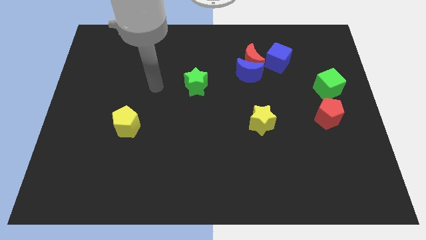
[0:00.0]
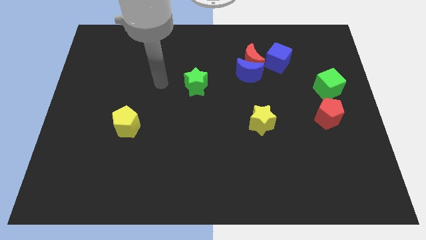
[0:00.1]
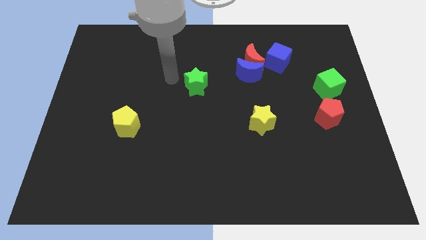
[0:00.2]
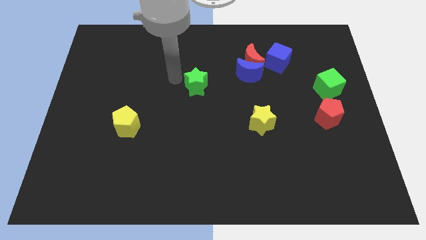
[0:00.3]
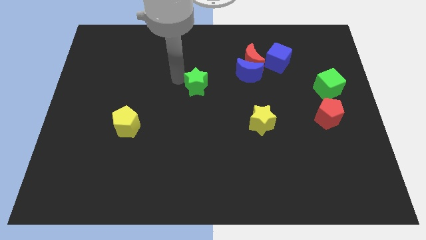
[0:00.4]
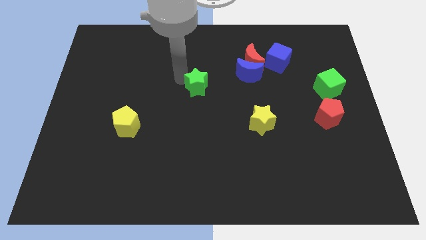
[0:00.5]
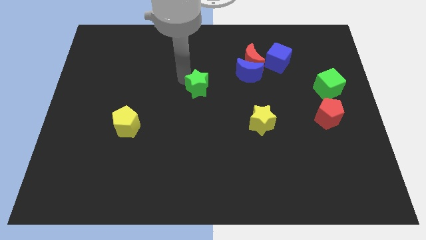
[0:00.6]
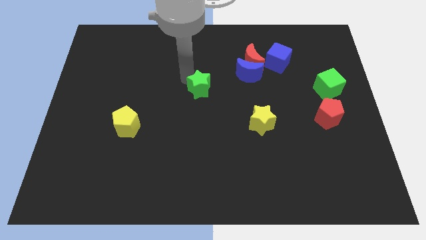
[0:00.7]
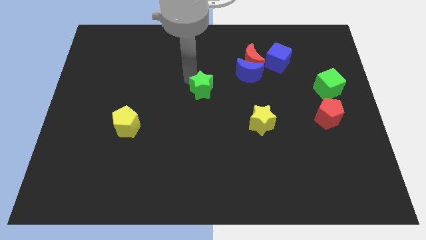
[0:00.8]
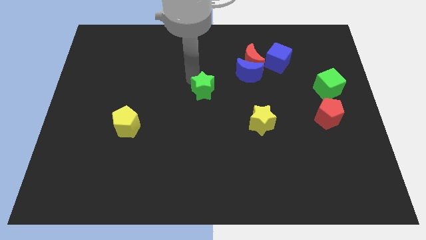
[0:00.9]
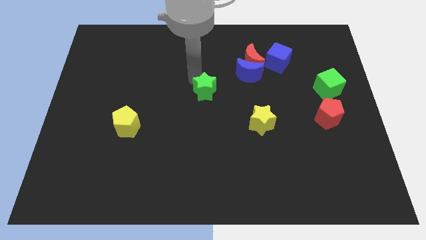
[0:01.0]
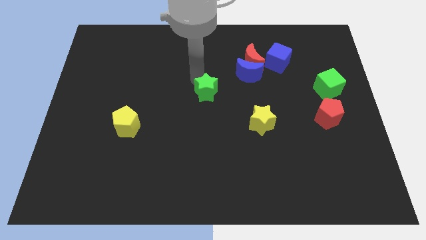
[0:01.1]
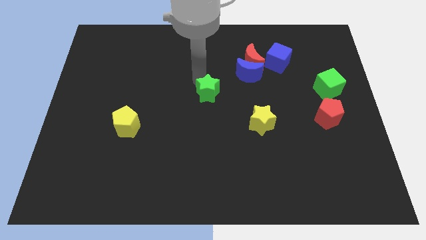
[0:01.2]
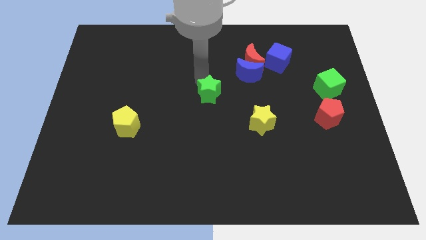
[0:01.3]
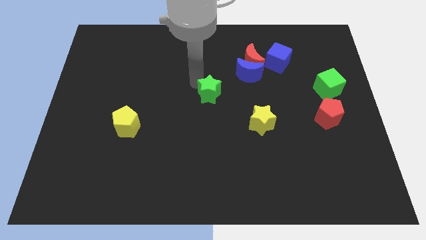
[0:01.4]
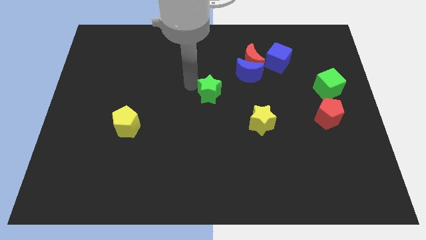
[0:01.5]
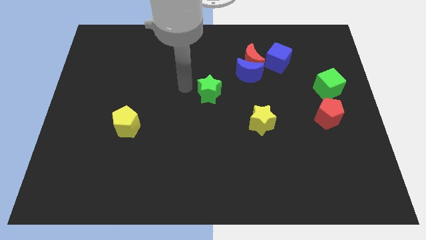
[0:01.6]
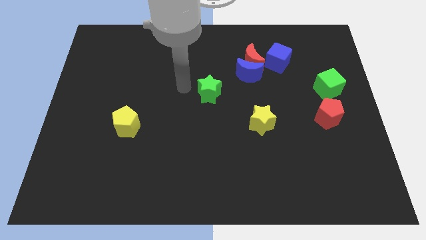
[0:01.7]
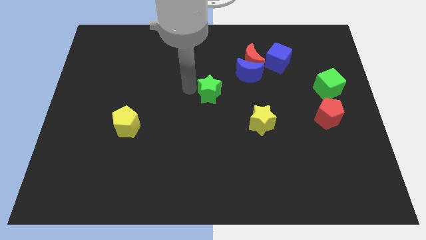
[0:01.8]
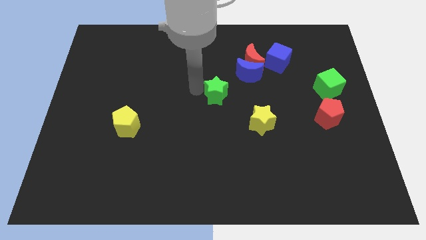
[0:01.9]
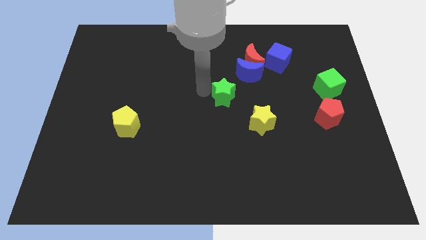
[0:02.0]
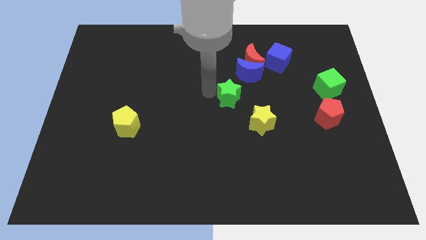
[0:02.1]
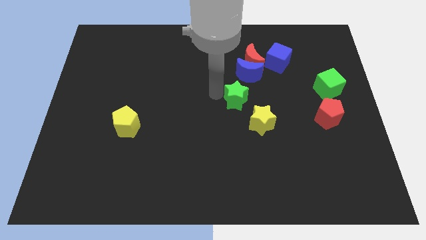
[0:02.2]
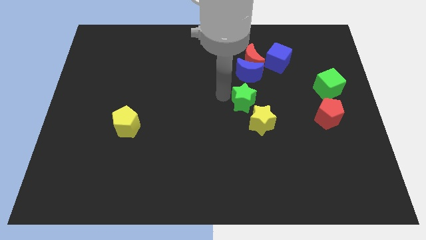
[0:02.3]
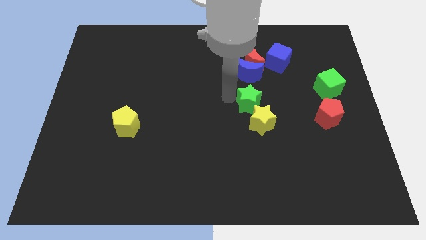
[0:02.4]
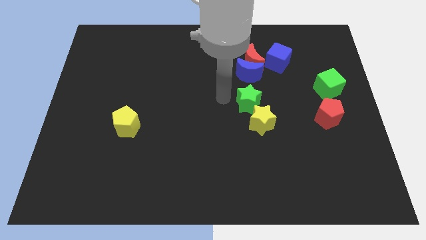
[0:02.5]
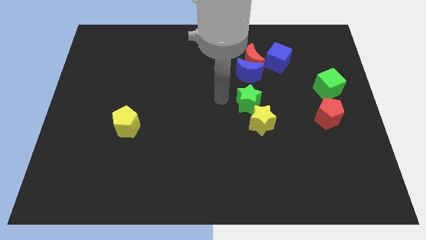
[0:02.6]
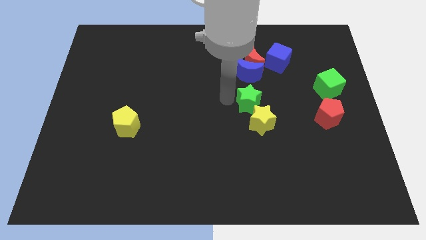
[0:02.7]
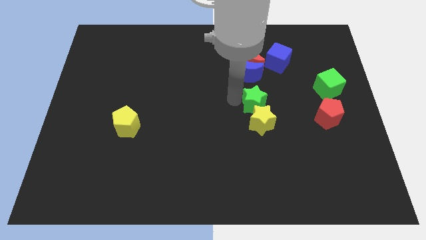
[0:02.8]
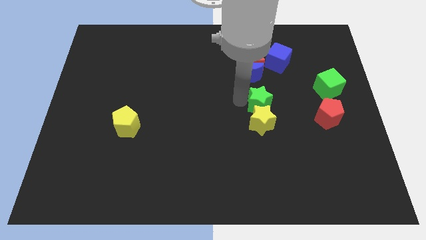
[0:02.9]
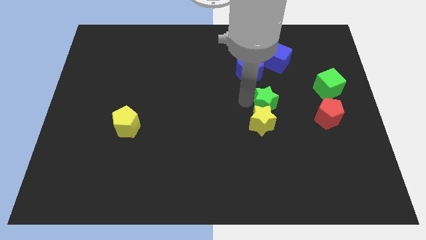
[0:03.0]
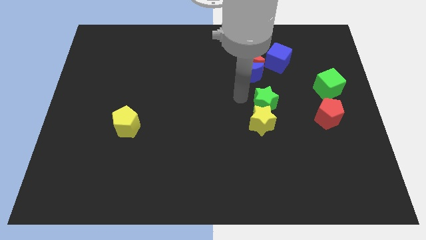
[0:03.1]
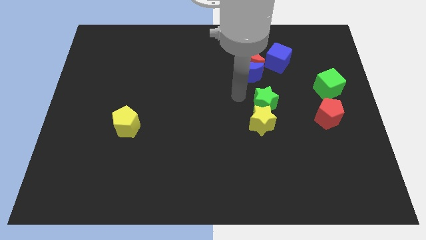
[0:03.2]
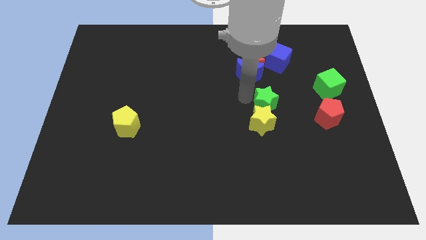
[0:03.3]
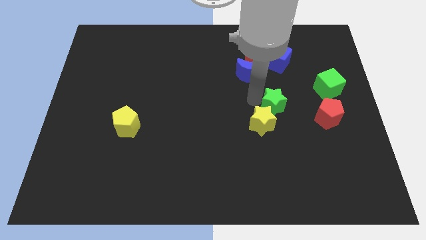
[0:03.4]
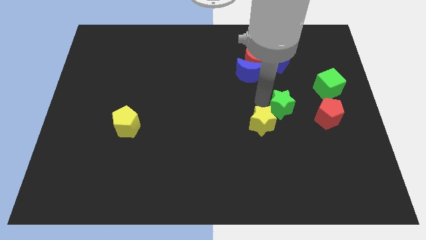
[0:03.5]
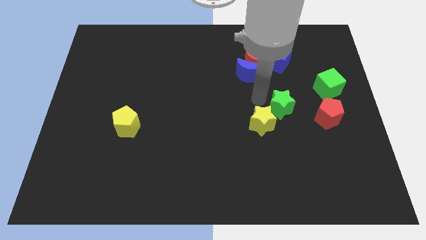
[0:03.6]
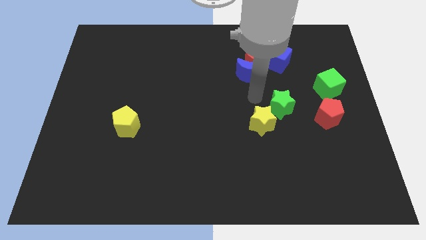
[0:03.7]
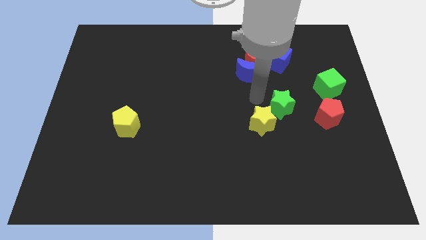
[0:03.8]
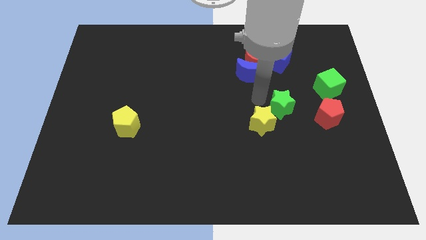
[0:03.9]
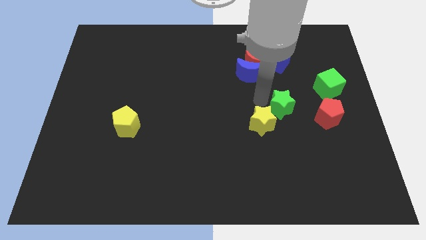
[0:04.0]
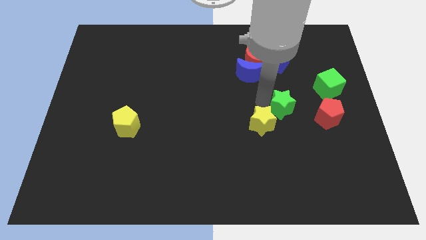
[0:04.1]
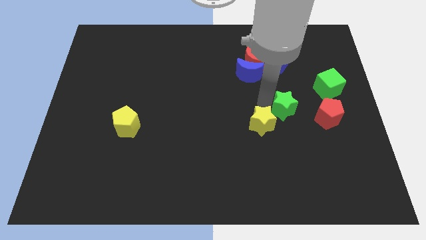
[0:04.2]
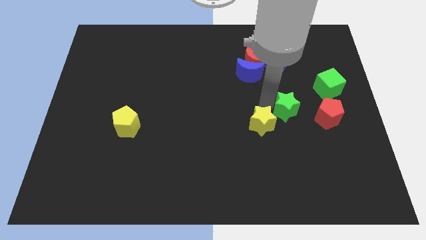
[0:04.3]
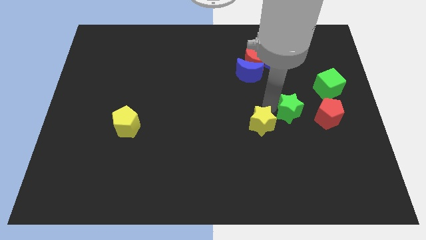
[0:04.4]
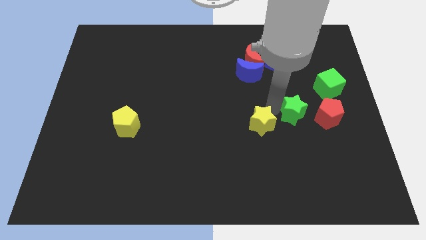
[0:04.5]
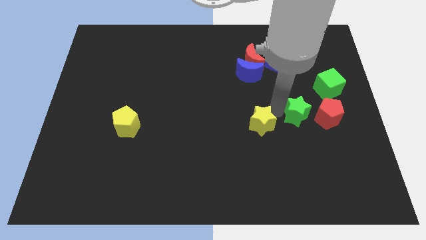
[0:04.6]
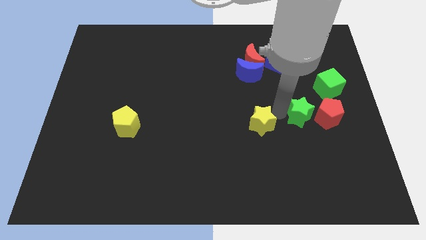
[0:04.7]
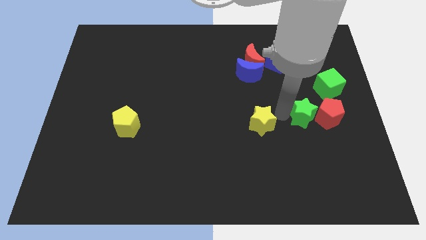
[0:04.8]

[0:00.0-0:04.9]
push the green star to the red pentagon

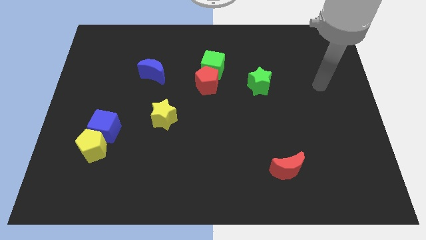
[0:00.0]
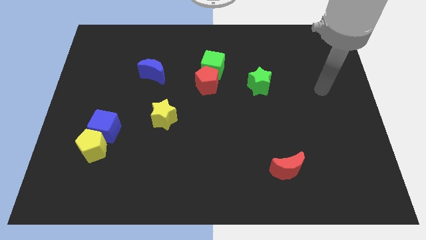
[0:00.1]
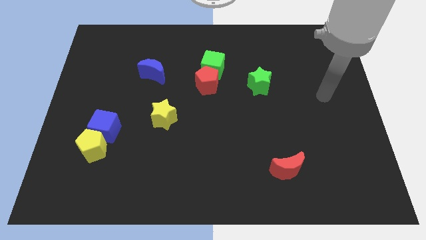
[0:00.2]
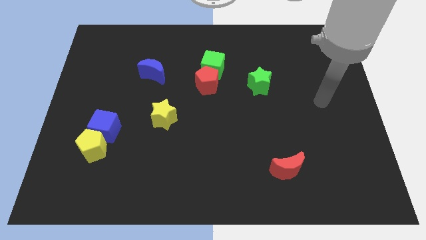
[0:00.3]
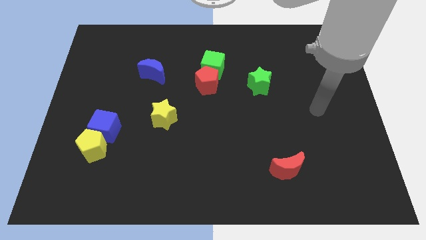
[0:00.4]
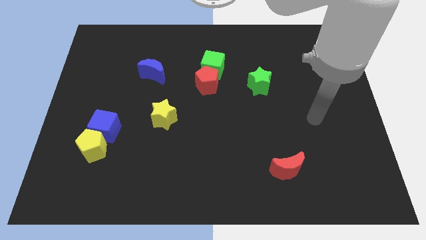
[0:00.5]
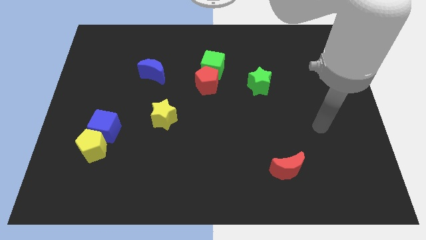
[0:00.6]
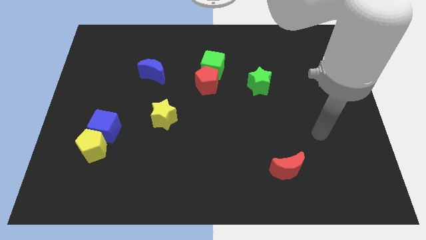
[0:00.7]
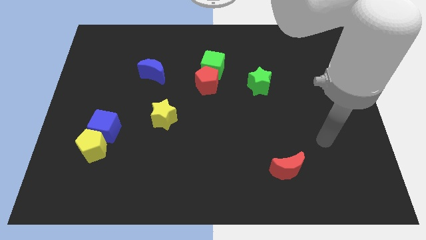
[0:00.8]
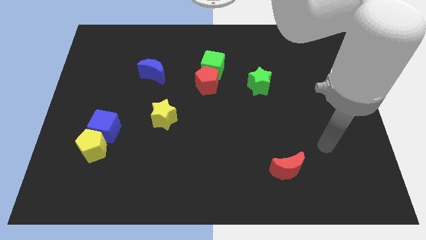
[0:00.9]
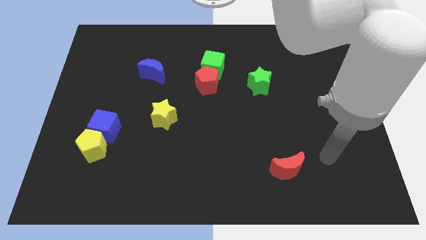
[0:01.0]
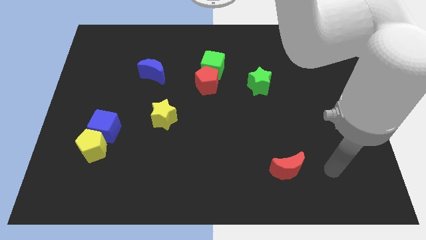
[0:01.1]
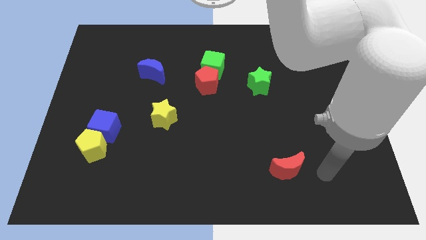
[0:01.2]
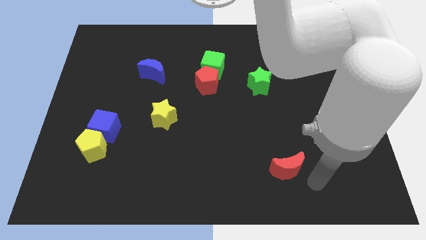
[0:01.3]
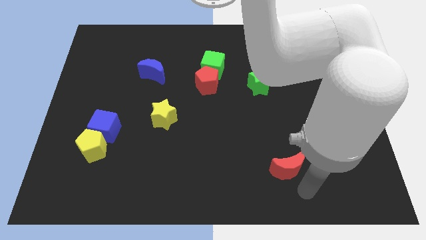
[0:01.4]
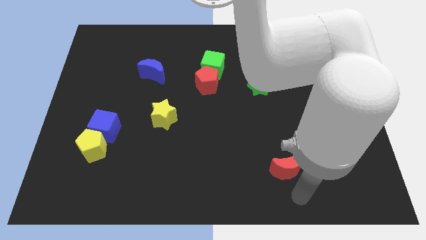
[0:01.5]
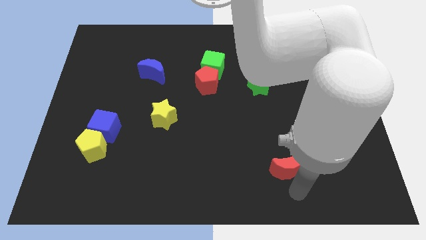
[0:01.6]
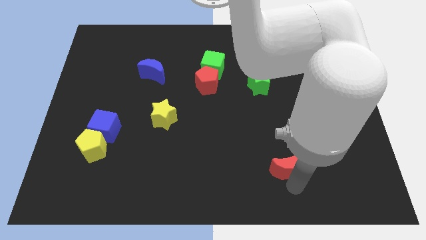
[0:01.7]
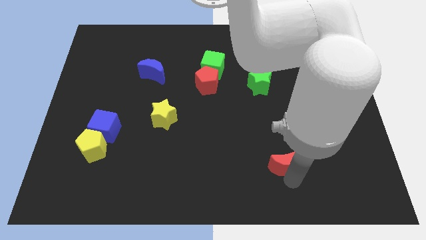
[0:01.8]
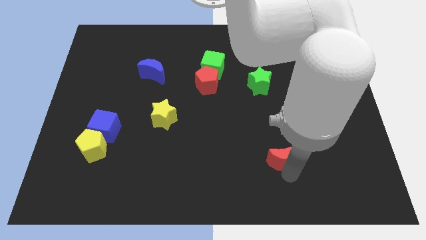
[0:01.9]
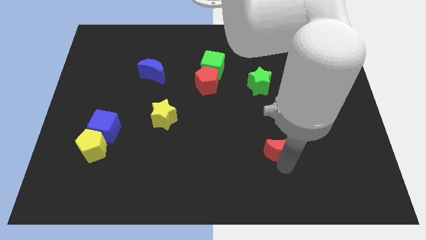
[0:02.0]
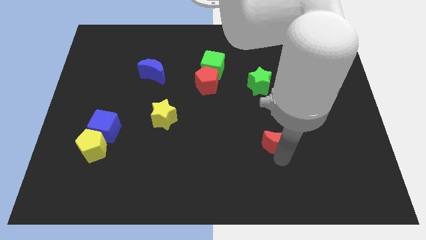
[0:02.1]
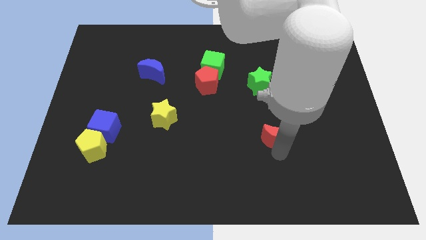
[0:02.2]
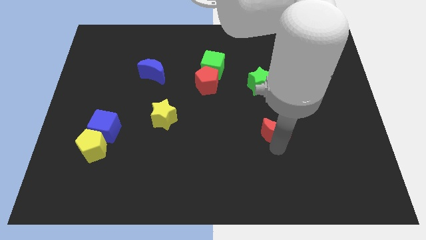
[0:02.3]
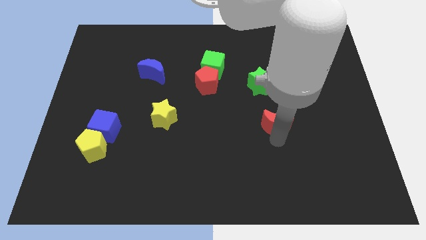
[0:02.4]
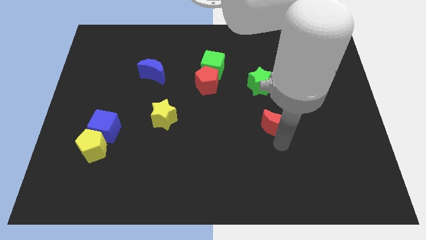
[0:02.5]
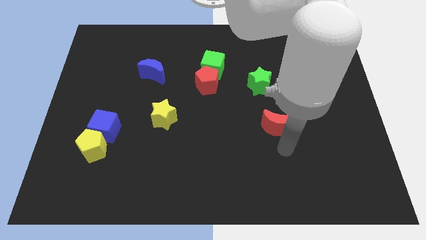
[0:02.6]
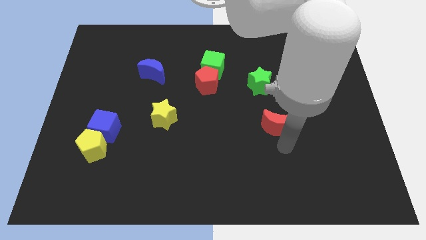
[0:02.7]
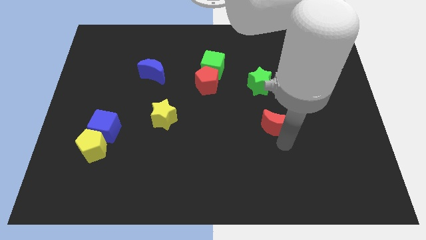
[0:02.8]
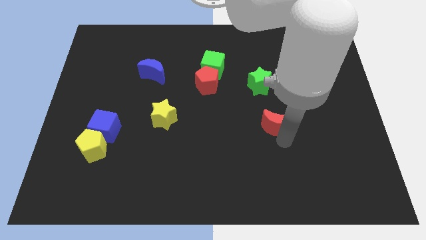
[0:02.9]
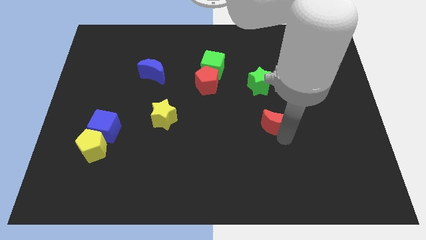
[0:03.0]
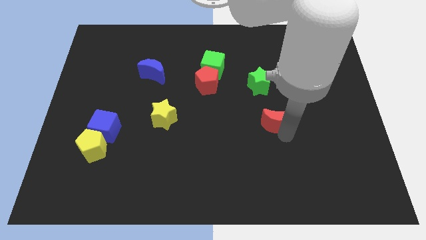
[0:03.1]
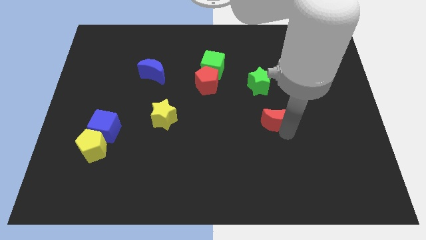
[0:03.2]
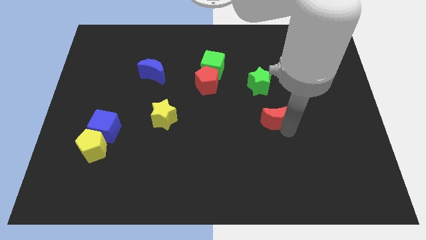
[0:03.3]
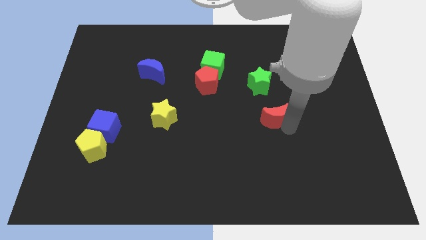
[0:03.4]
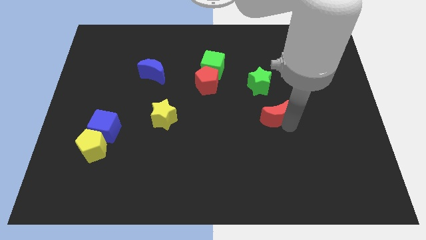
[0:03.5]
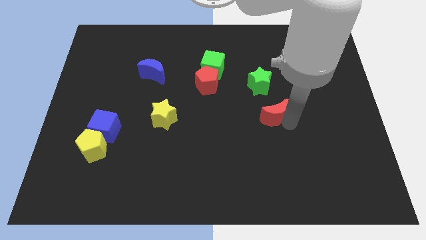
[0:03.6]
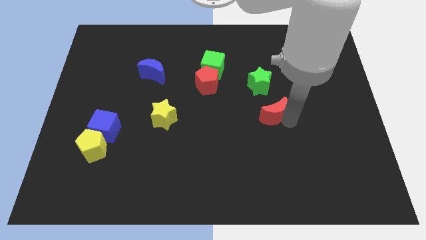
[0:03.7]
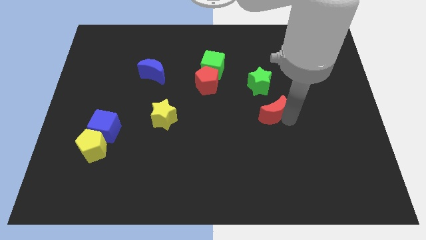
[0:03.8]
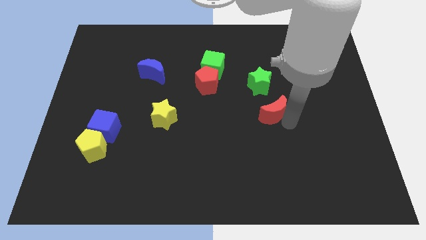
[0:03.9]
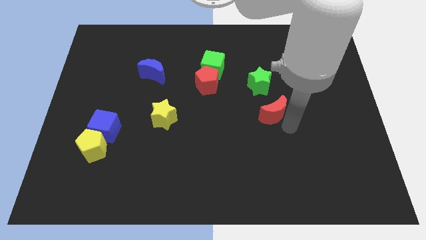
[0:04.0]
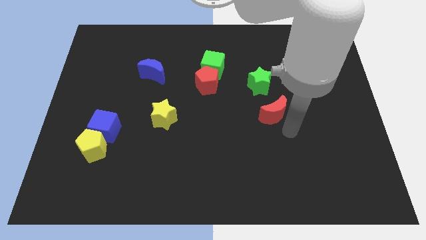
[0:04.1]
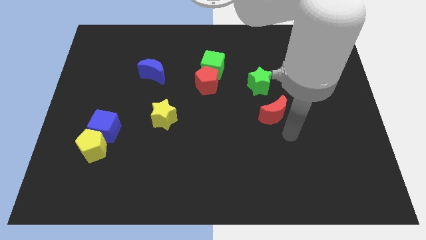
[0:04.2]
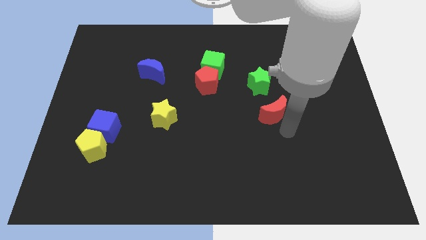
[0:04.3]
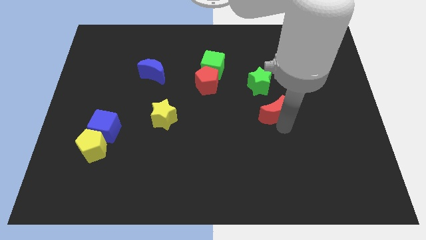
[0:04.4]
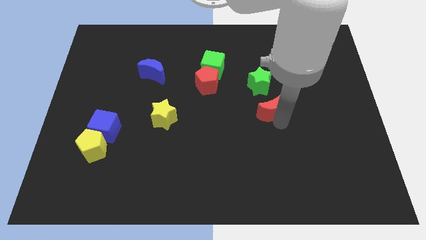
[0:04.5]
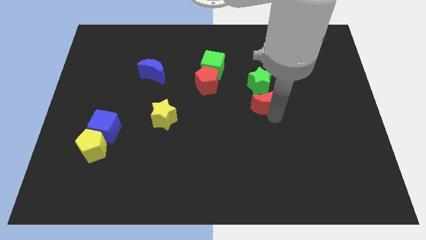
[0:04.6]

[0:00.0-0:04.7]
slide the red moon towards the green star
